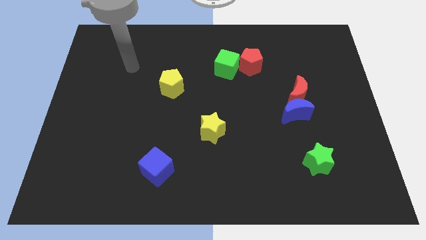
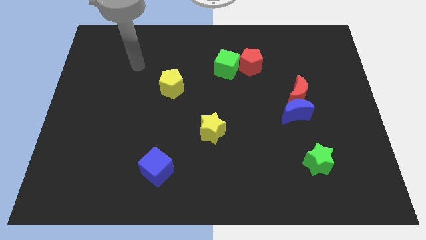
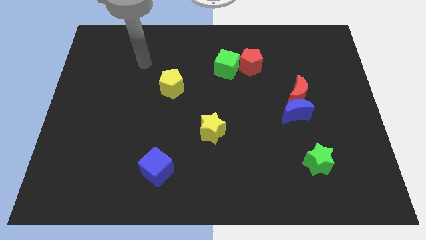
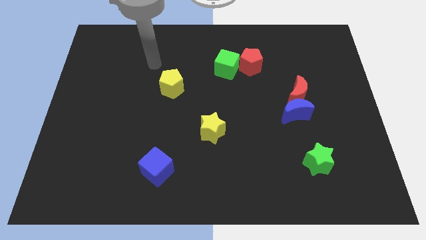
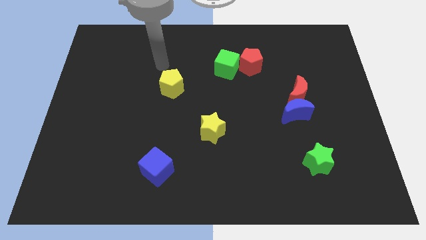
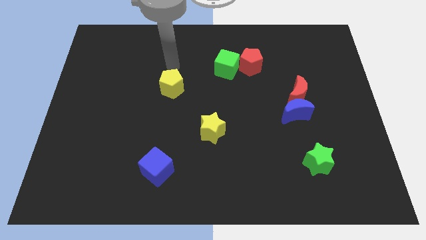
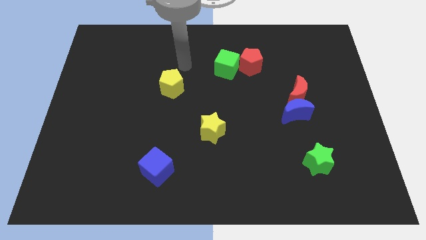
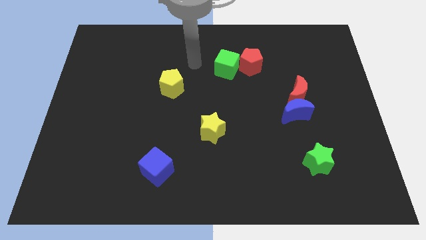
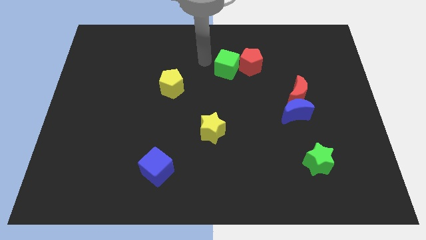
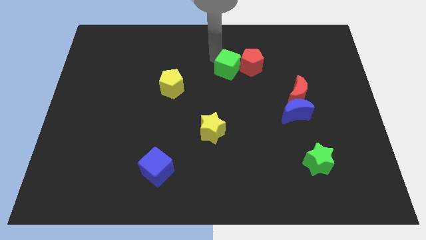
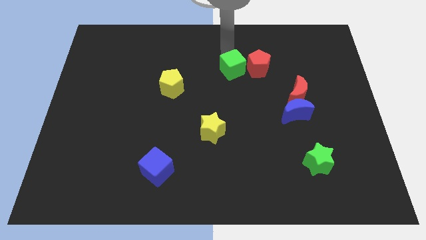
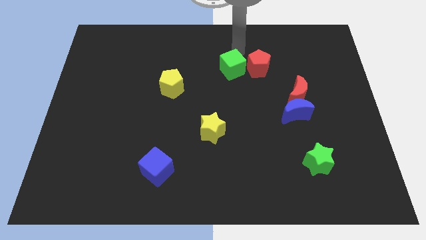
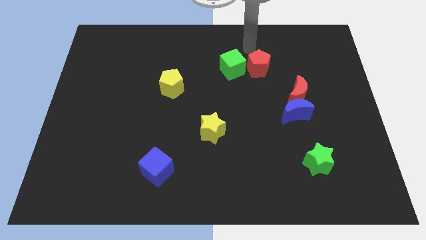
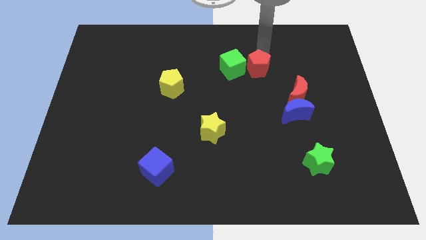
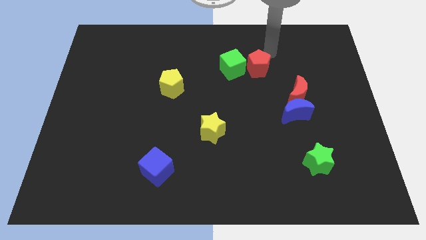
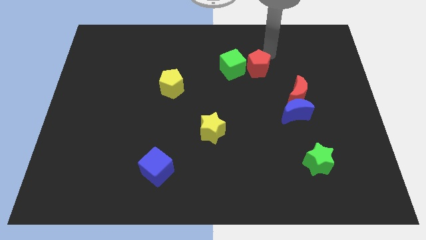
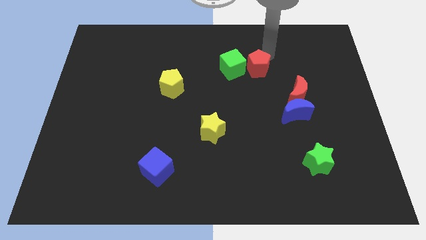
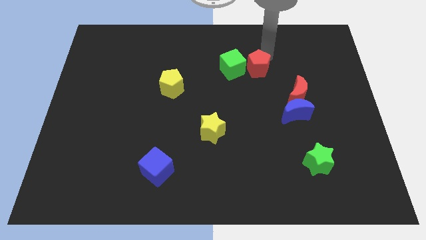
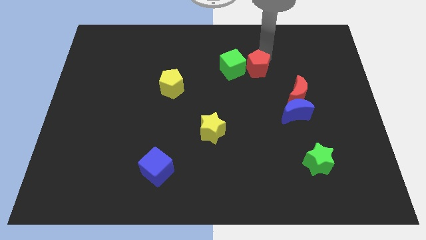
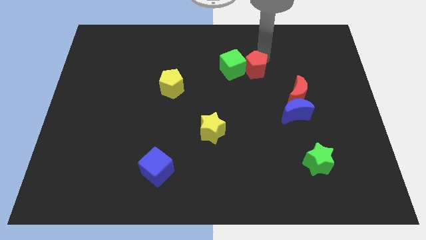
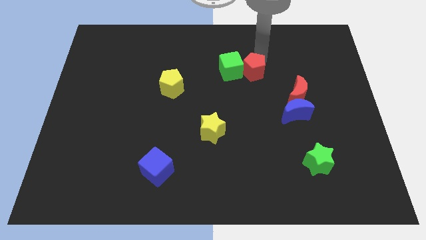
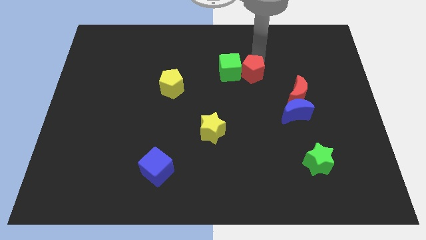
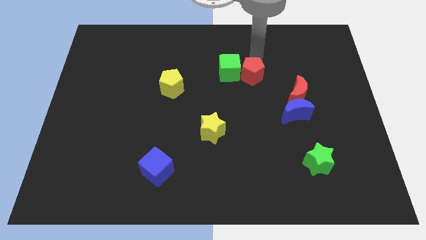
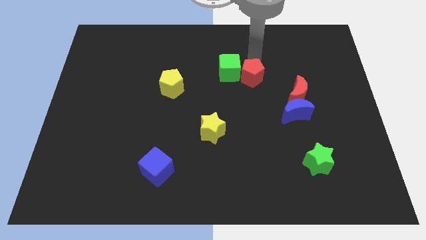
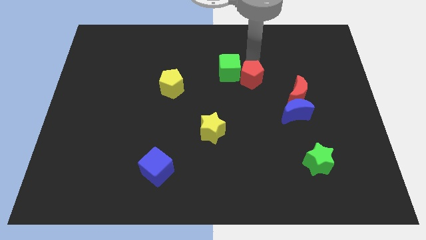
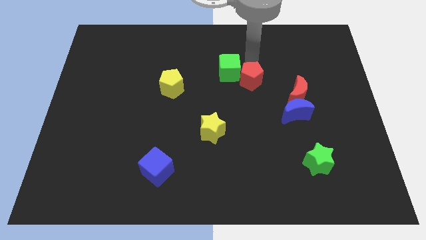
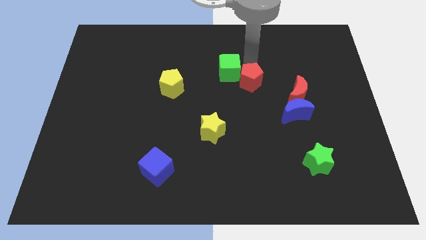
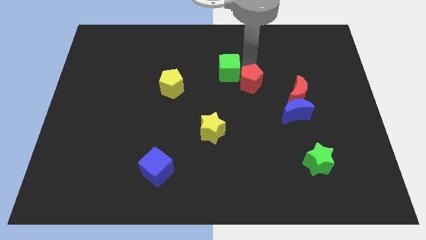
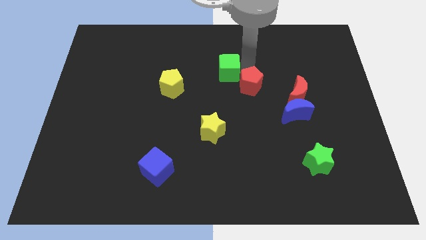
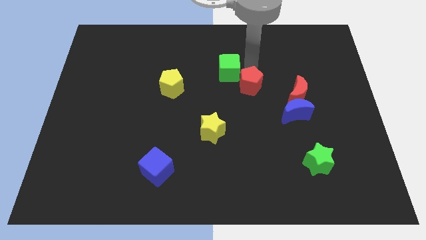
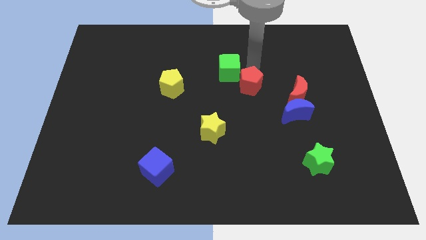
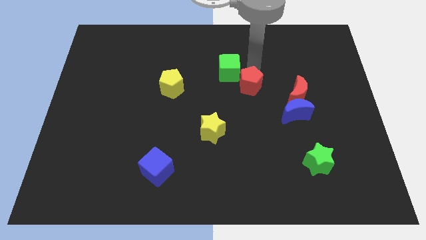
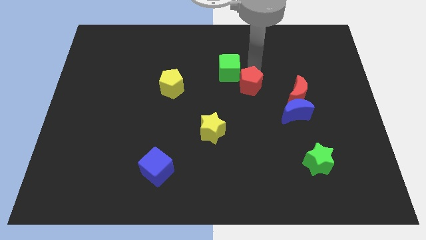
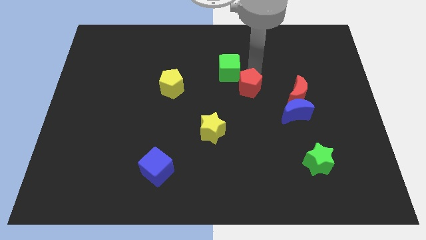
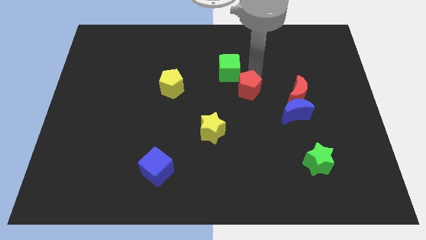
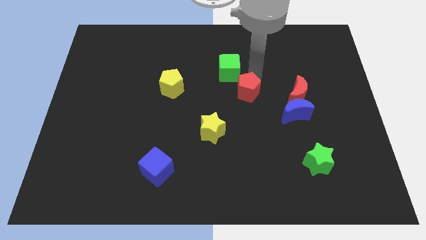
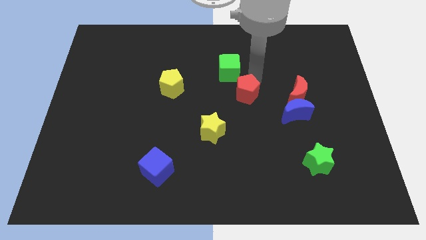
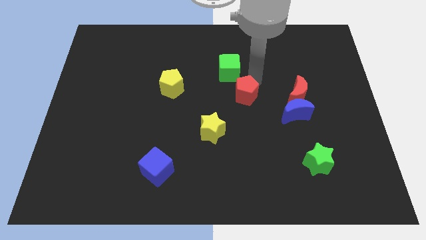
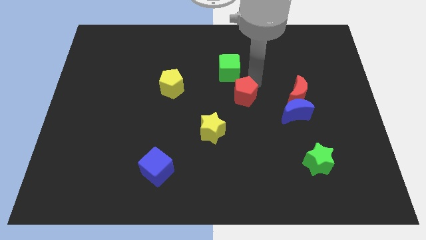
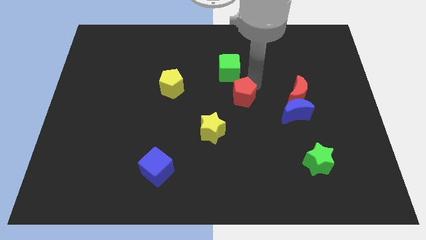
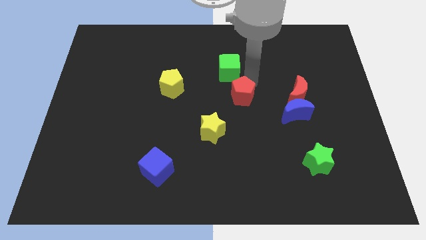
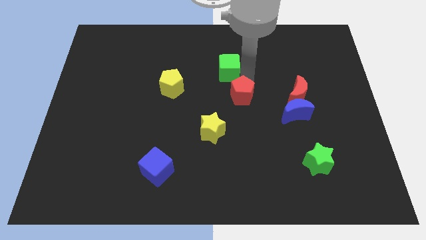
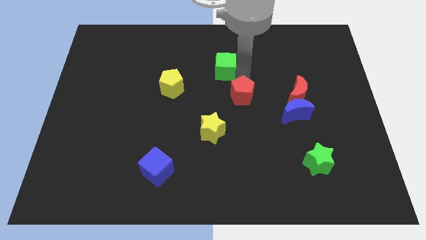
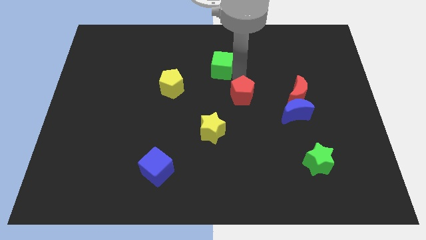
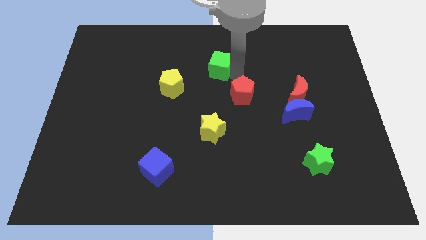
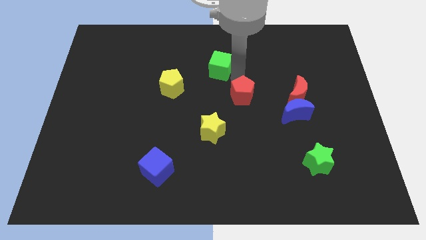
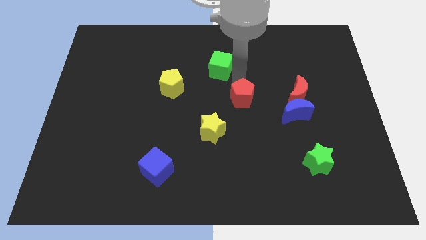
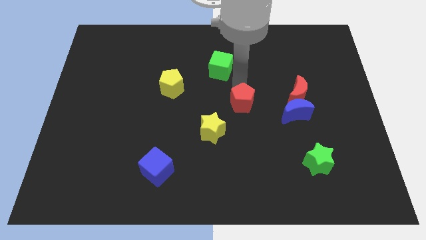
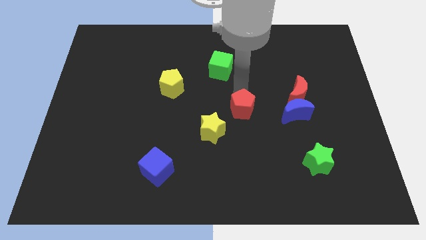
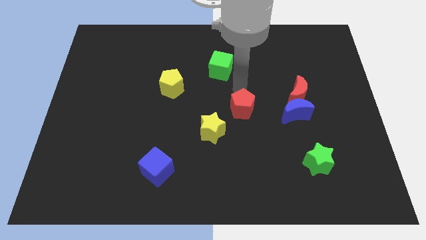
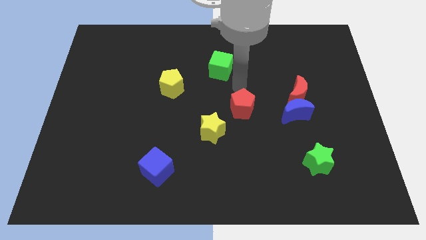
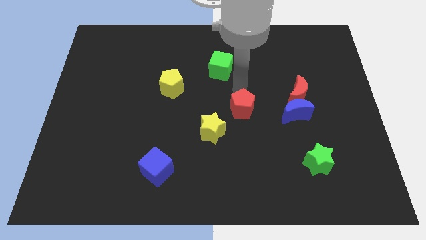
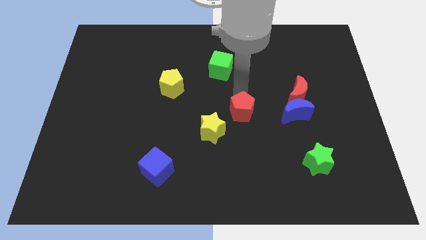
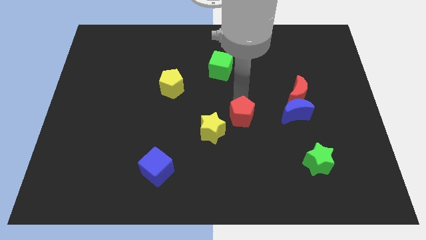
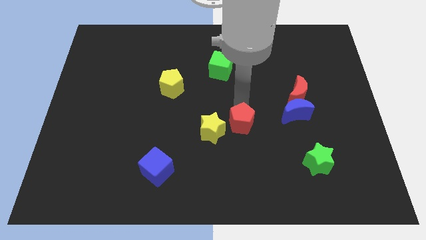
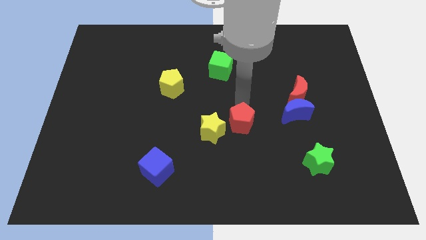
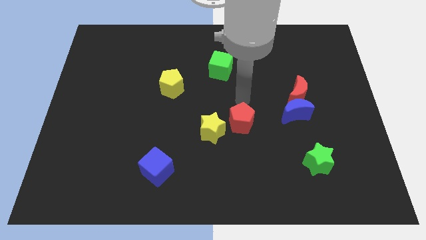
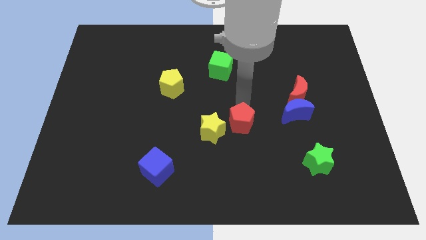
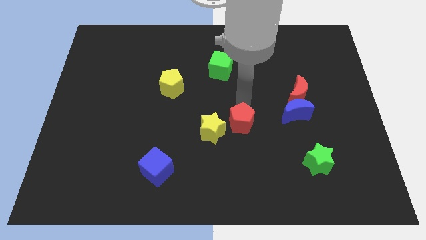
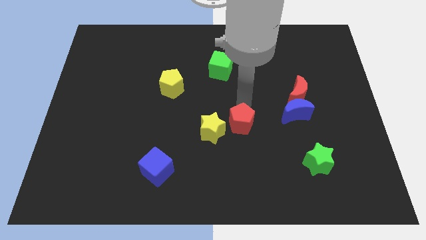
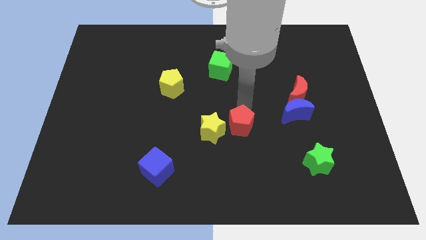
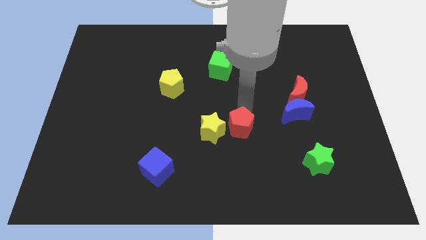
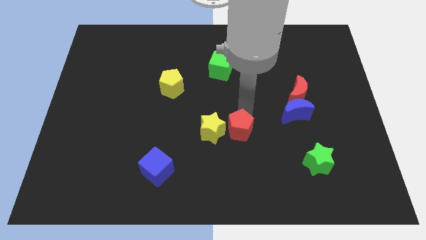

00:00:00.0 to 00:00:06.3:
push the red pentagon to the bottom right of the yellow star
